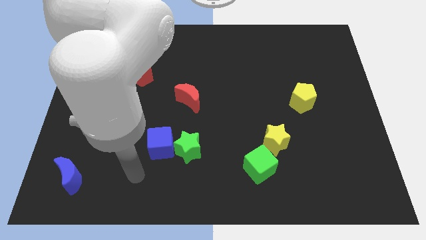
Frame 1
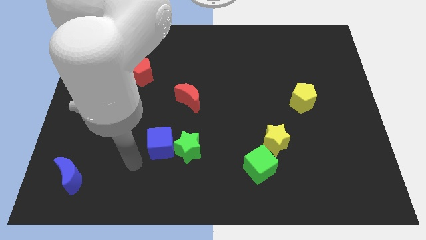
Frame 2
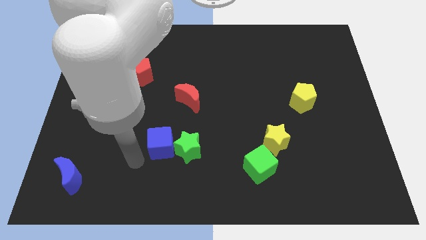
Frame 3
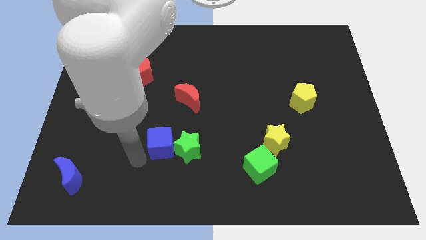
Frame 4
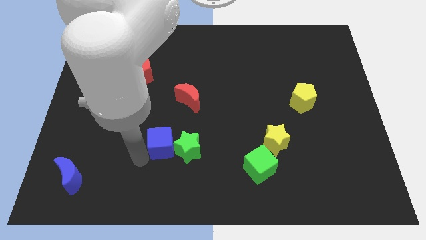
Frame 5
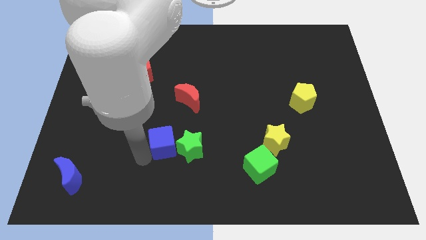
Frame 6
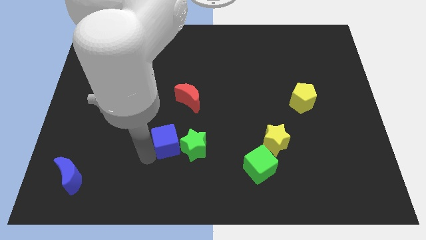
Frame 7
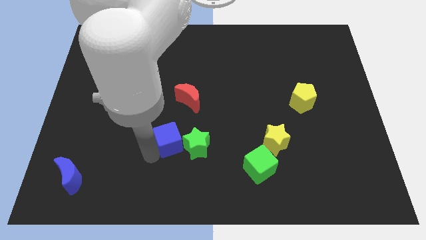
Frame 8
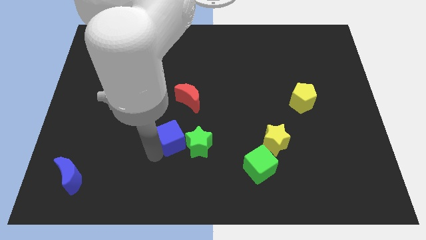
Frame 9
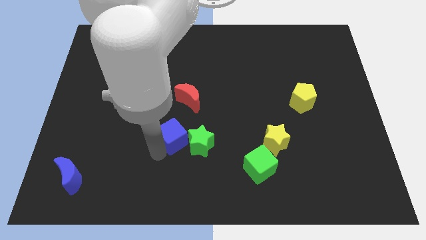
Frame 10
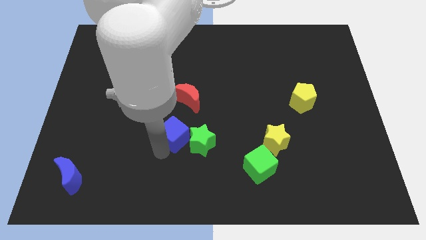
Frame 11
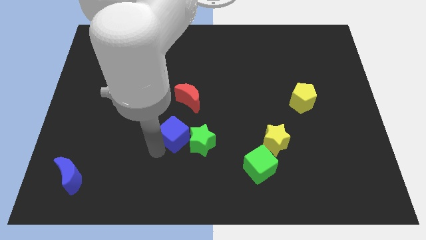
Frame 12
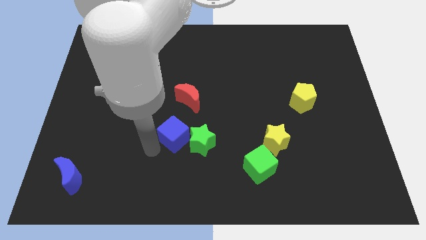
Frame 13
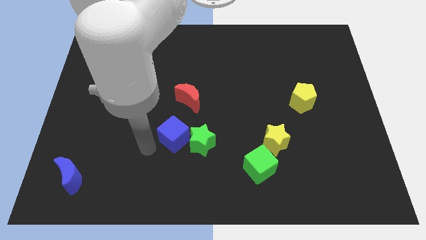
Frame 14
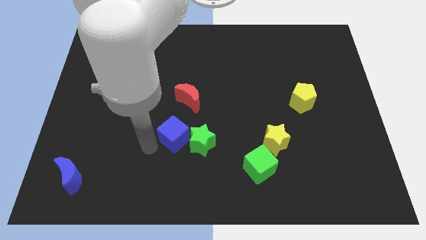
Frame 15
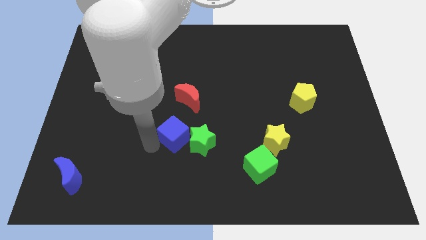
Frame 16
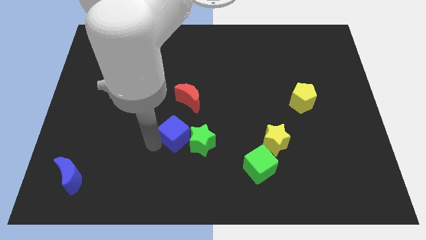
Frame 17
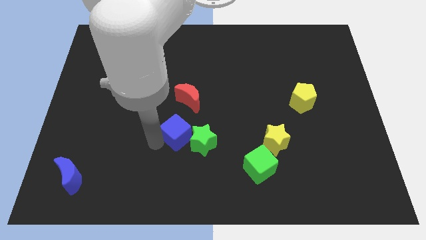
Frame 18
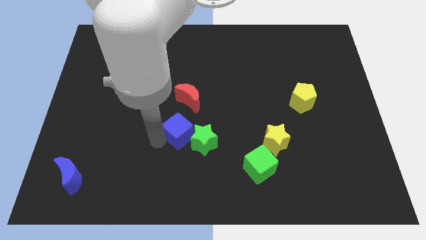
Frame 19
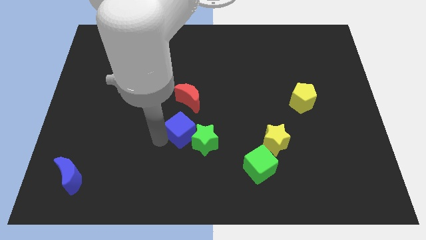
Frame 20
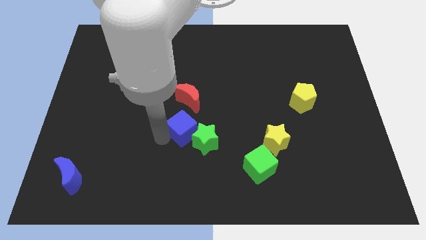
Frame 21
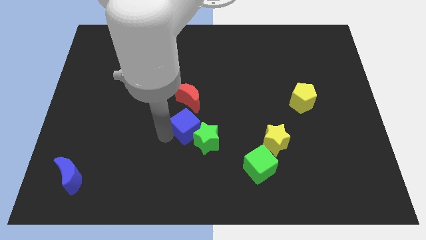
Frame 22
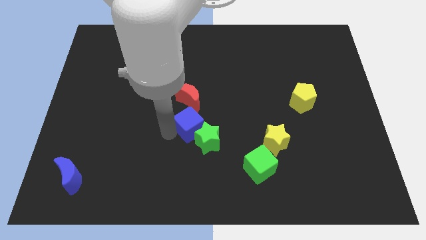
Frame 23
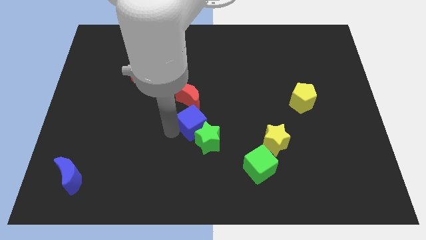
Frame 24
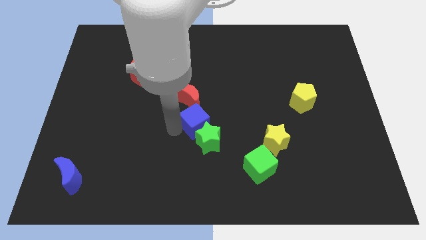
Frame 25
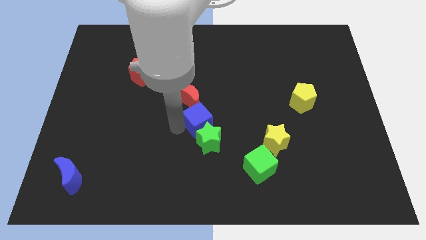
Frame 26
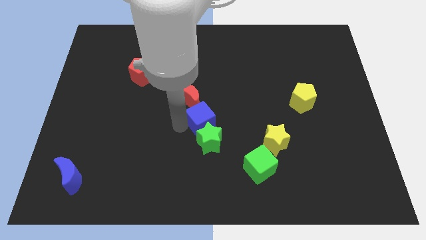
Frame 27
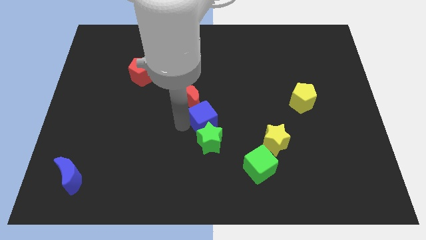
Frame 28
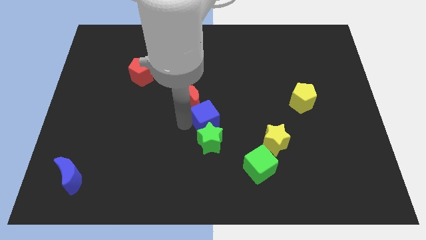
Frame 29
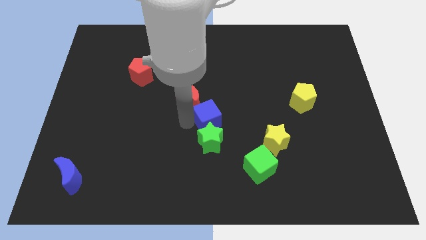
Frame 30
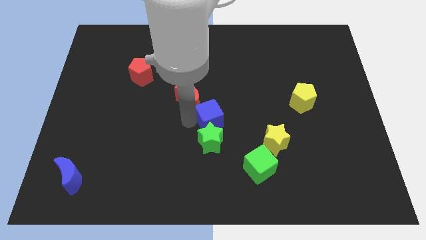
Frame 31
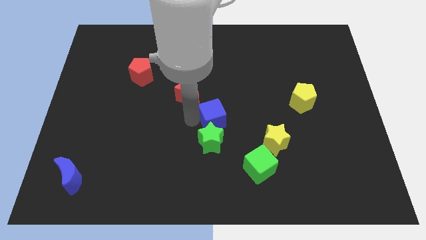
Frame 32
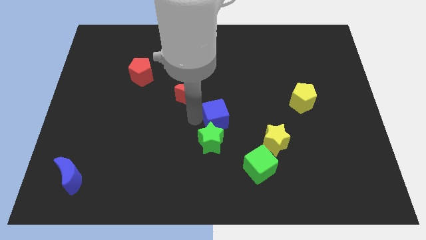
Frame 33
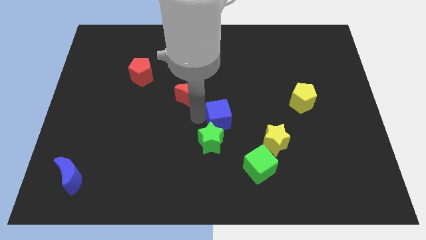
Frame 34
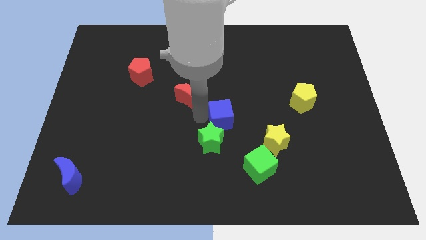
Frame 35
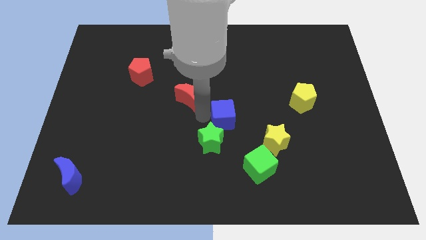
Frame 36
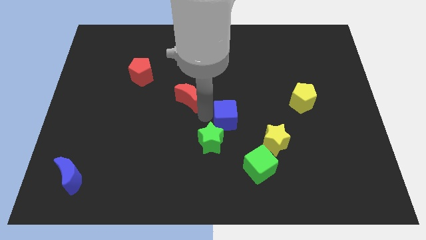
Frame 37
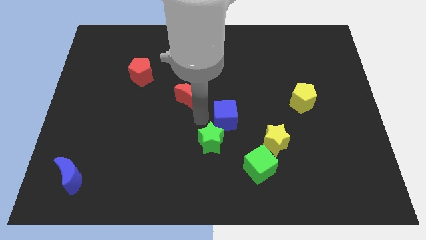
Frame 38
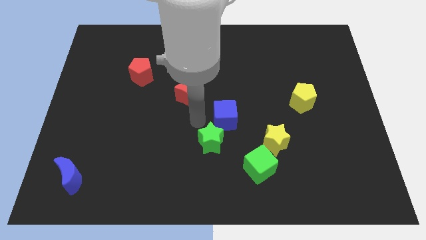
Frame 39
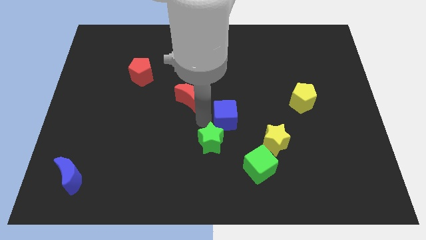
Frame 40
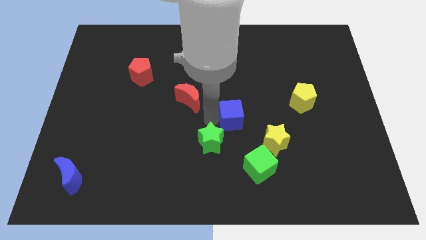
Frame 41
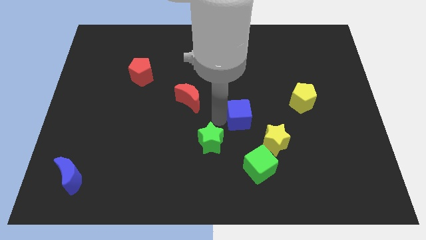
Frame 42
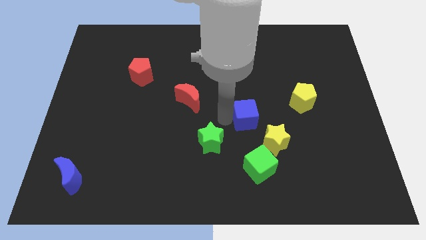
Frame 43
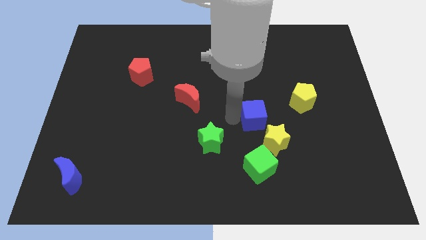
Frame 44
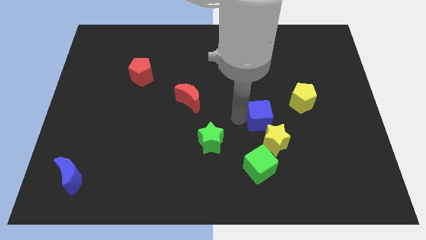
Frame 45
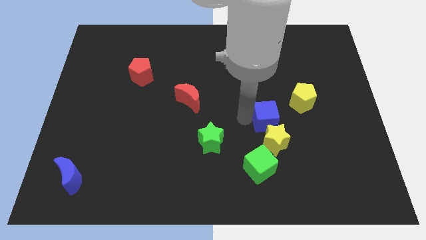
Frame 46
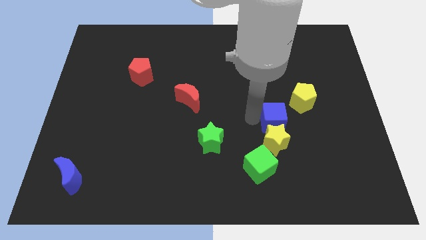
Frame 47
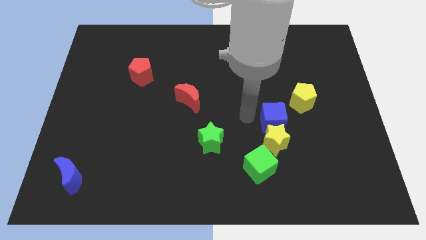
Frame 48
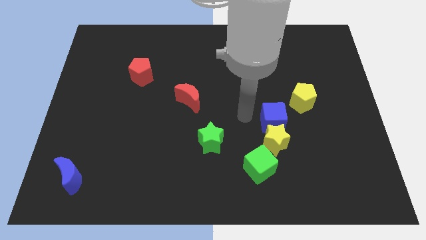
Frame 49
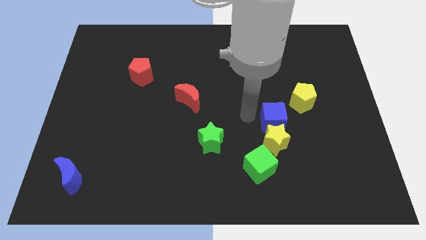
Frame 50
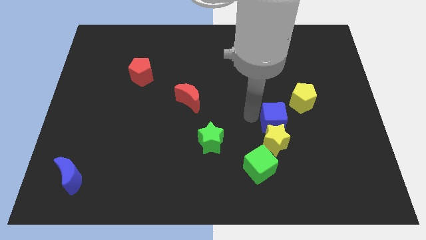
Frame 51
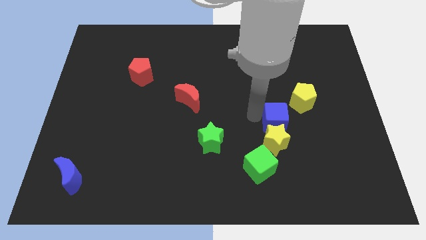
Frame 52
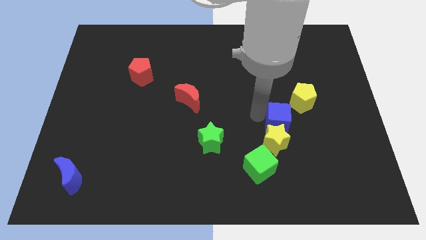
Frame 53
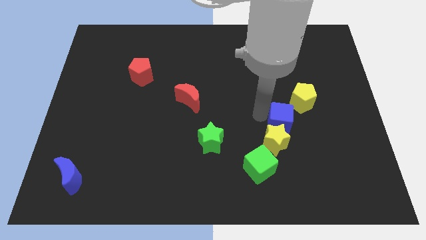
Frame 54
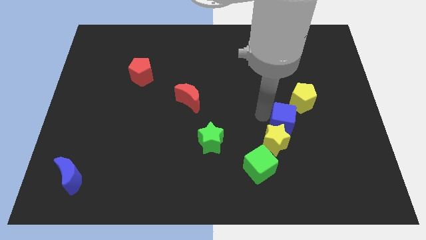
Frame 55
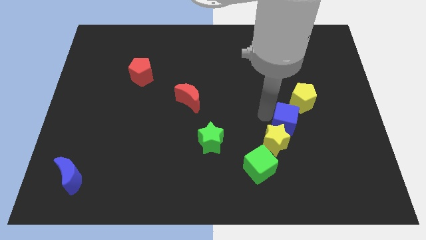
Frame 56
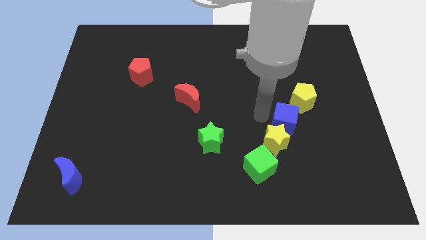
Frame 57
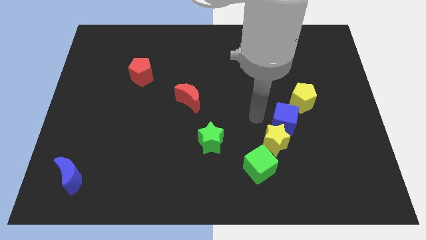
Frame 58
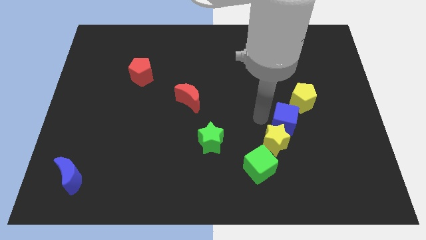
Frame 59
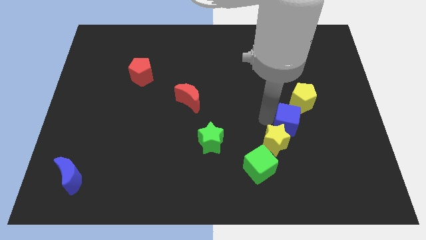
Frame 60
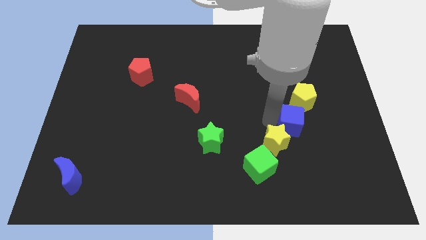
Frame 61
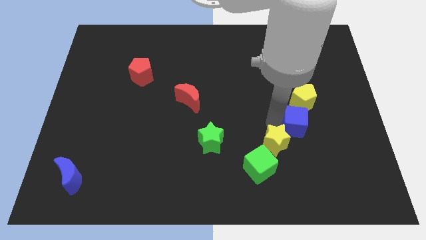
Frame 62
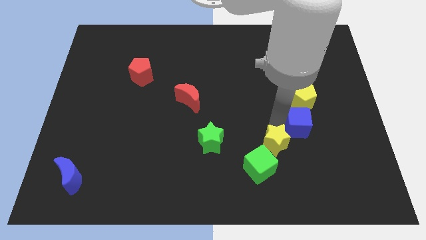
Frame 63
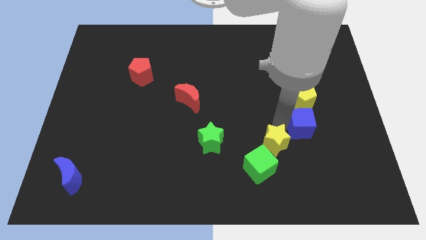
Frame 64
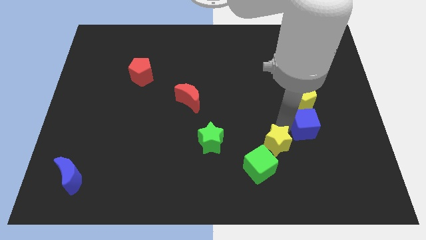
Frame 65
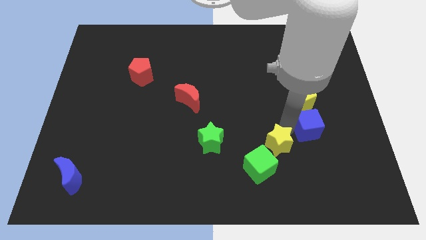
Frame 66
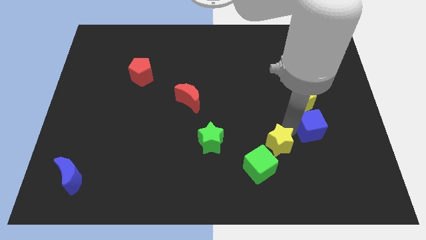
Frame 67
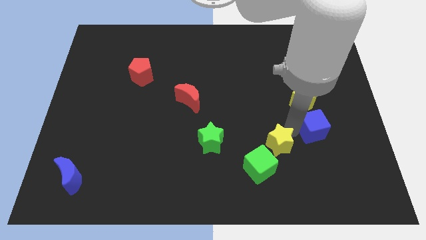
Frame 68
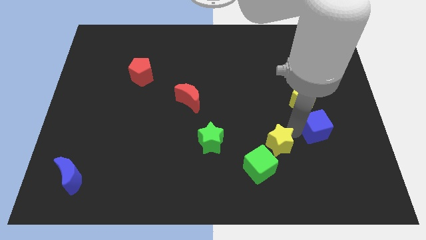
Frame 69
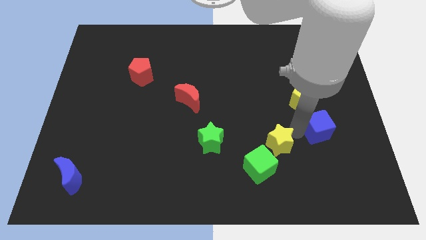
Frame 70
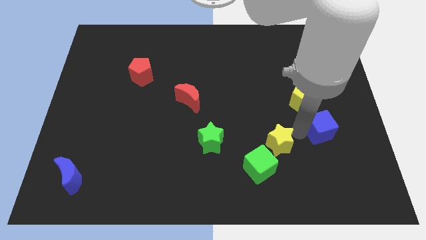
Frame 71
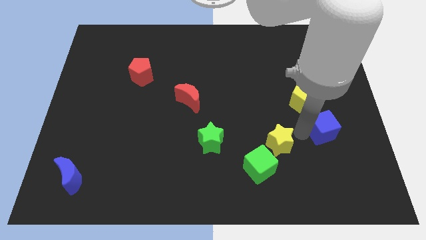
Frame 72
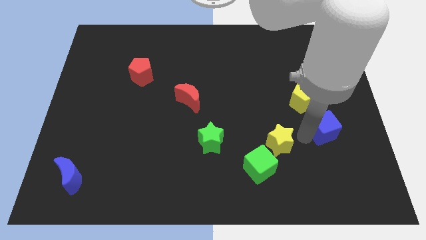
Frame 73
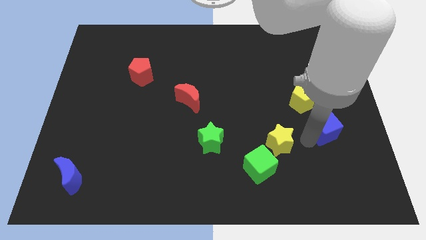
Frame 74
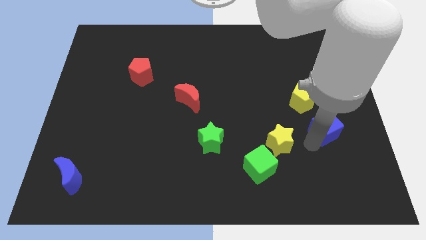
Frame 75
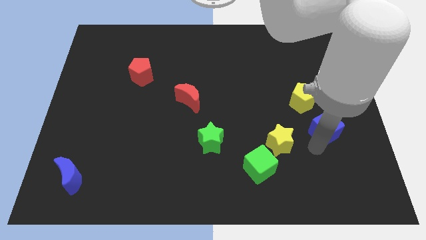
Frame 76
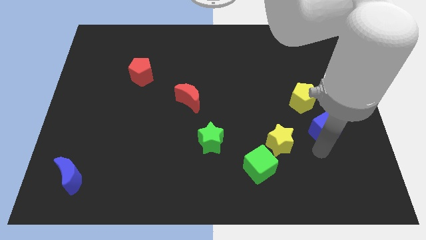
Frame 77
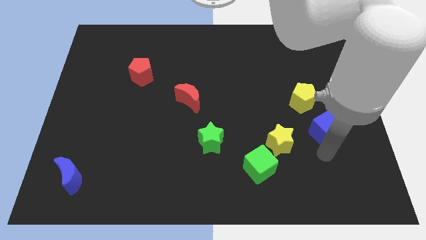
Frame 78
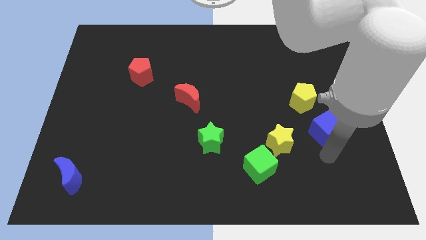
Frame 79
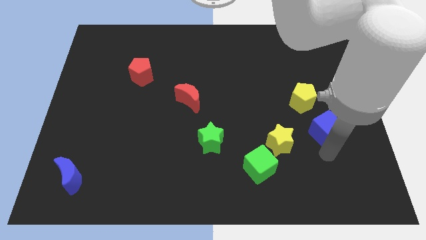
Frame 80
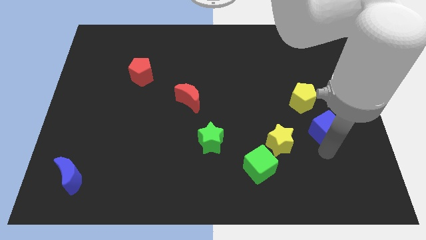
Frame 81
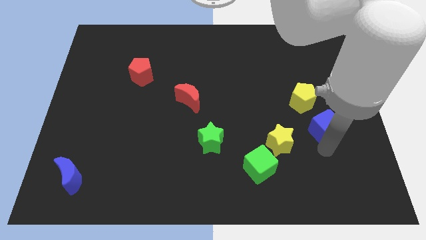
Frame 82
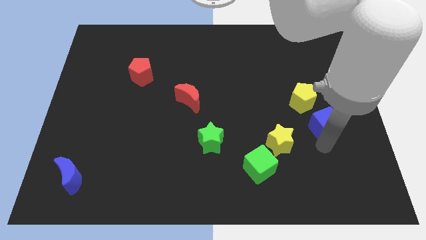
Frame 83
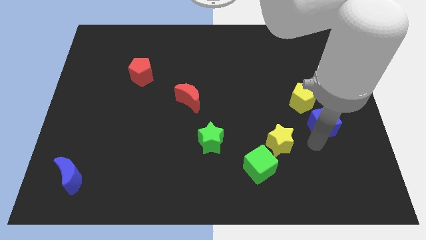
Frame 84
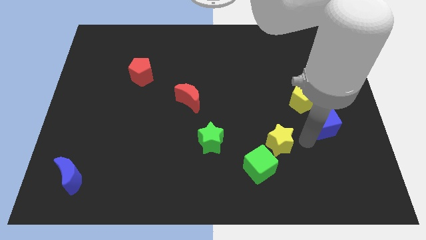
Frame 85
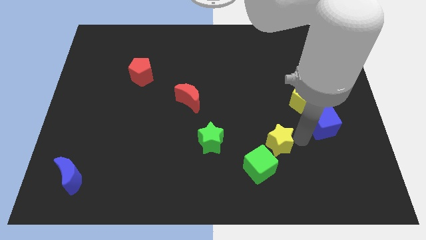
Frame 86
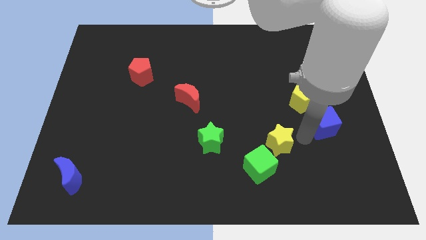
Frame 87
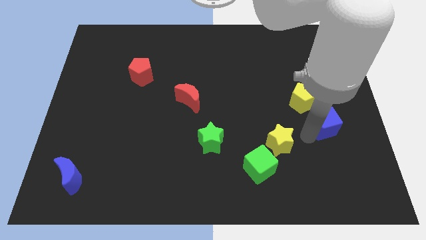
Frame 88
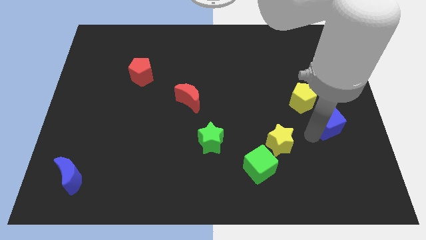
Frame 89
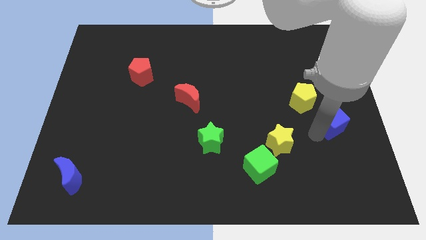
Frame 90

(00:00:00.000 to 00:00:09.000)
slide the blue cube to the center right
